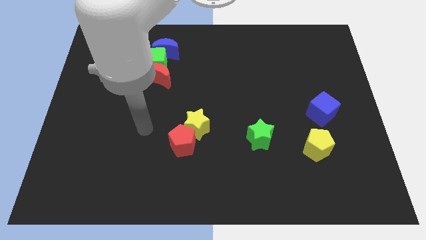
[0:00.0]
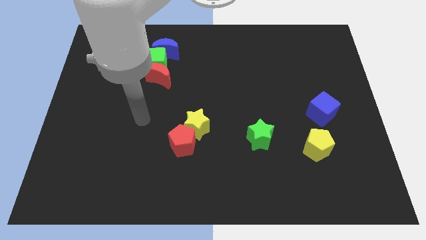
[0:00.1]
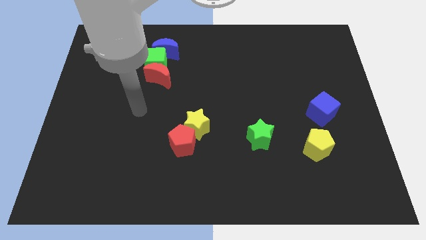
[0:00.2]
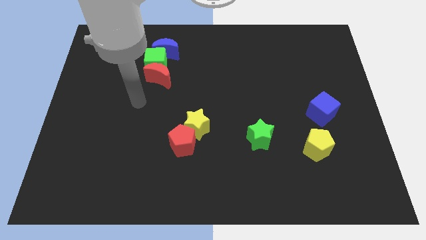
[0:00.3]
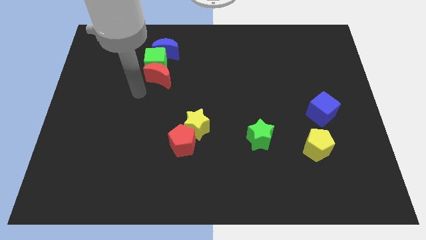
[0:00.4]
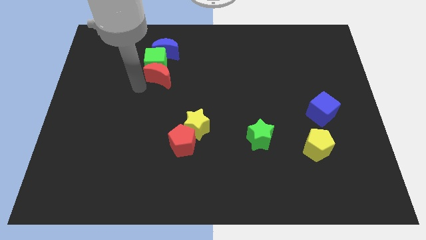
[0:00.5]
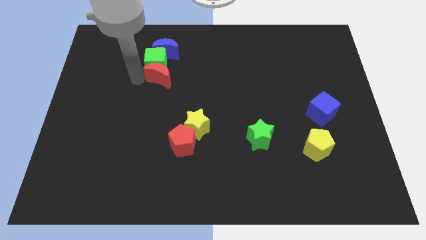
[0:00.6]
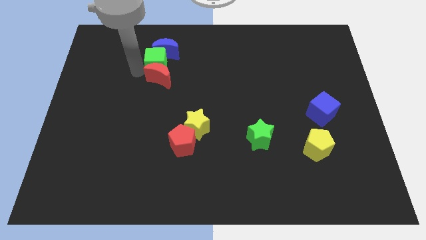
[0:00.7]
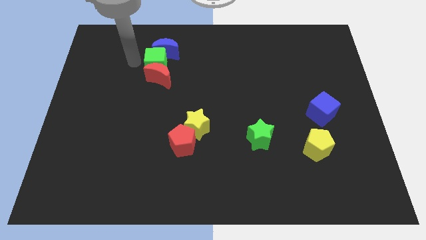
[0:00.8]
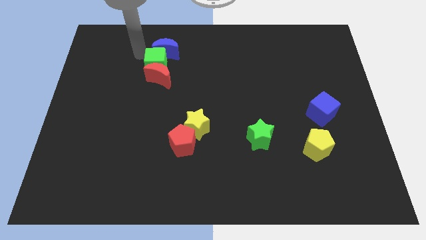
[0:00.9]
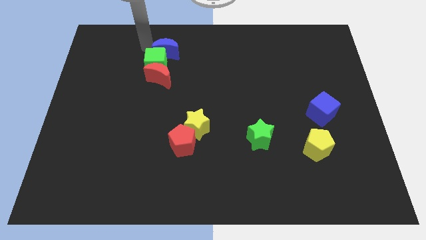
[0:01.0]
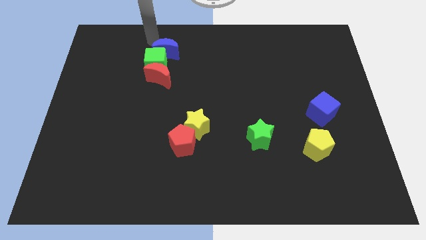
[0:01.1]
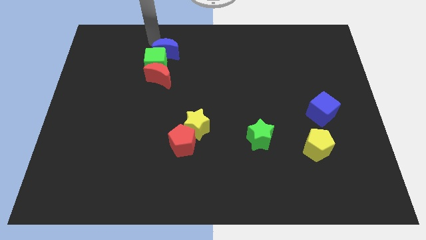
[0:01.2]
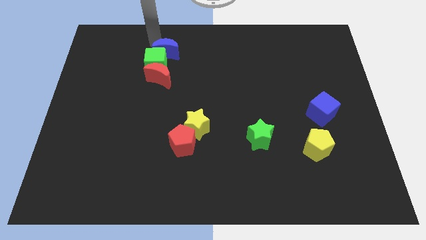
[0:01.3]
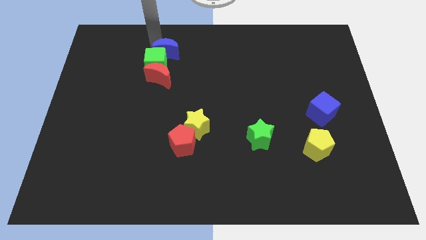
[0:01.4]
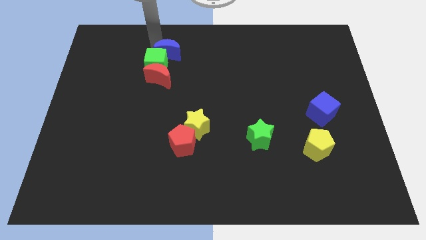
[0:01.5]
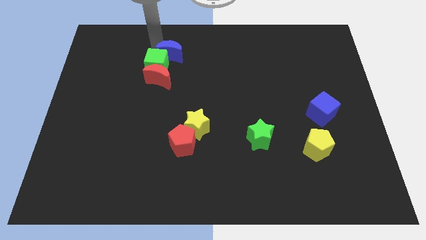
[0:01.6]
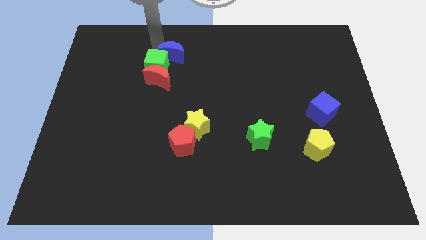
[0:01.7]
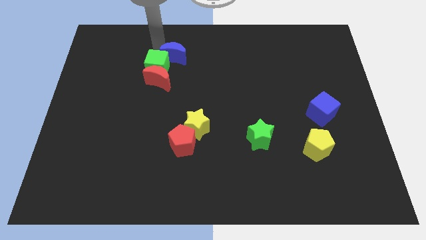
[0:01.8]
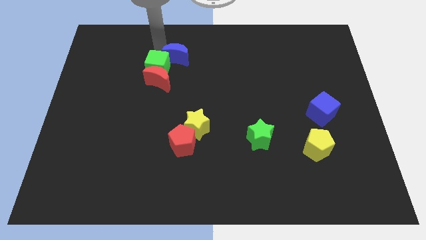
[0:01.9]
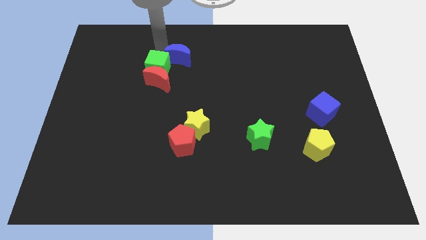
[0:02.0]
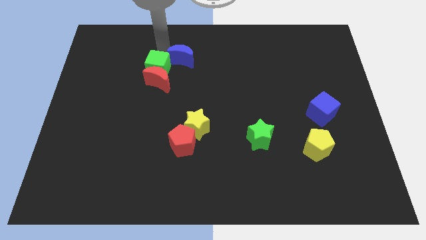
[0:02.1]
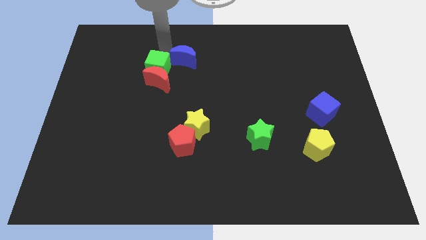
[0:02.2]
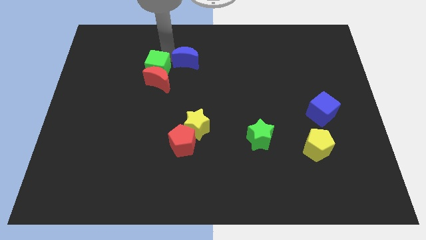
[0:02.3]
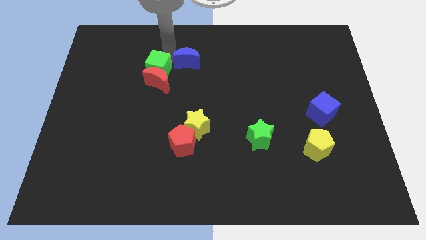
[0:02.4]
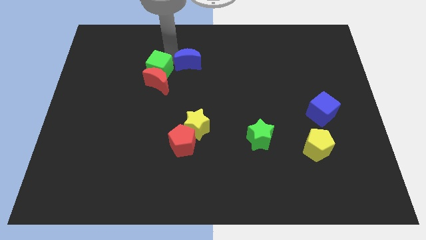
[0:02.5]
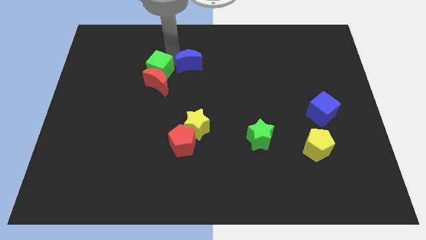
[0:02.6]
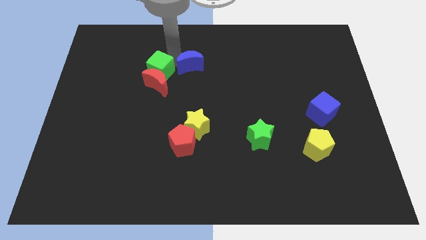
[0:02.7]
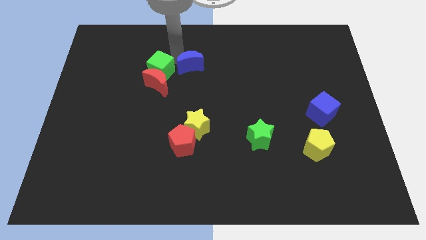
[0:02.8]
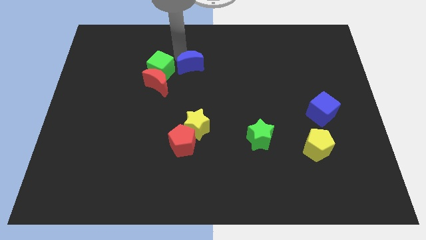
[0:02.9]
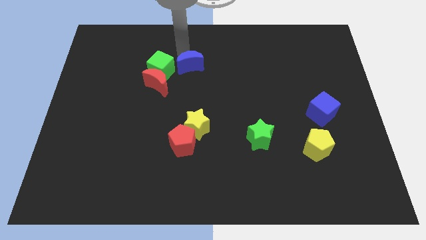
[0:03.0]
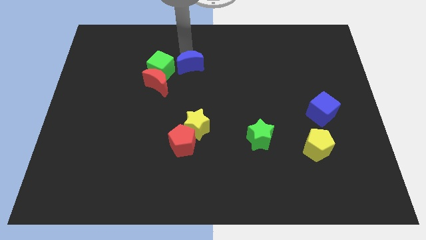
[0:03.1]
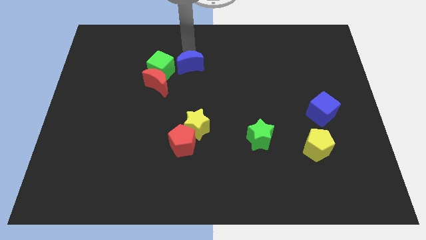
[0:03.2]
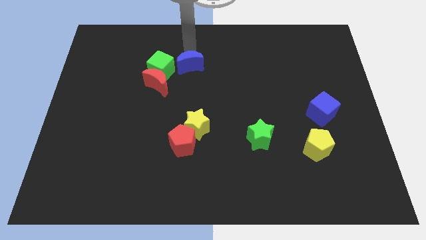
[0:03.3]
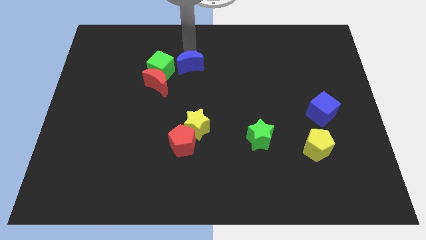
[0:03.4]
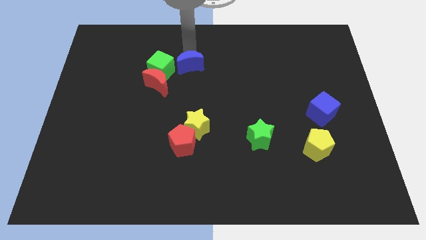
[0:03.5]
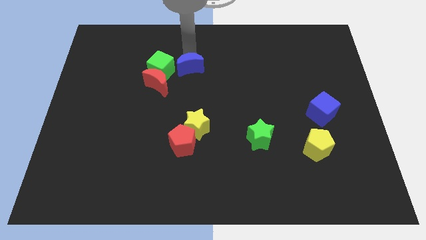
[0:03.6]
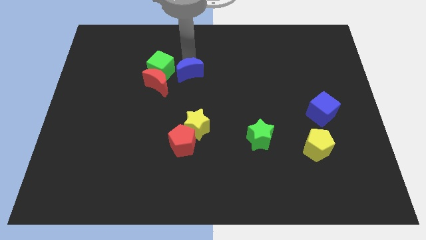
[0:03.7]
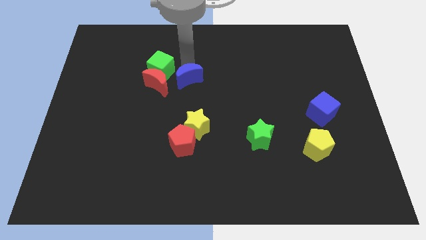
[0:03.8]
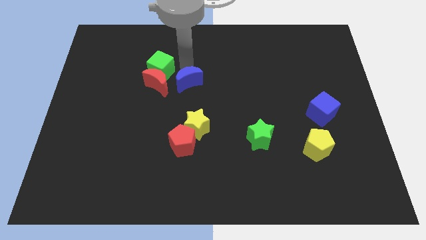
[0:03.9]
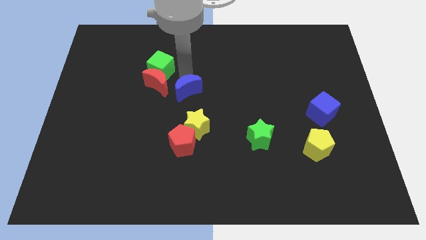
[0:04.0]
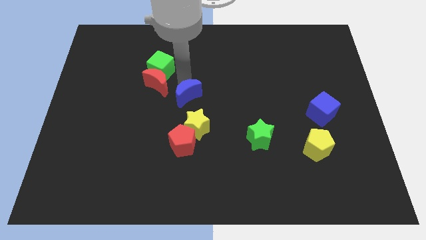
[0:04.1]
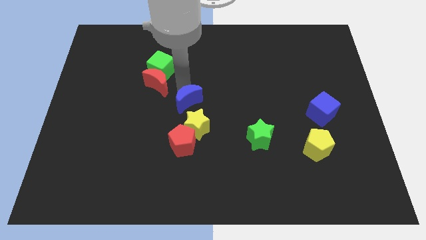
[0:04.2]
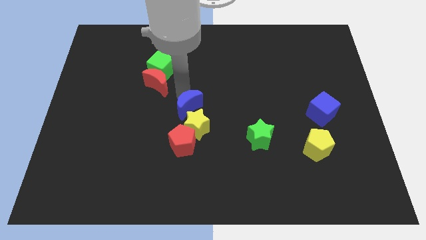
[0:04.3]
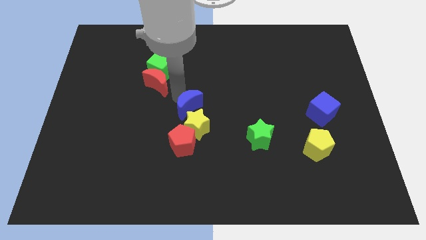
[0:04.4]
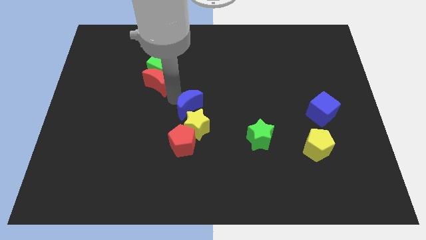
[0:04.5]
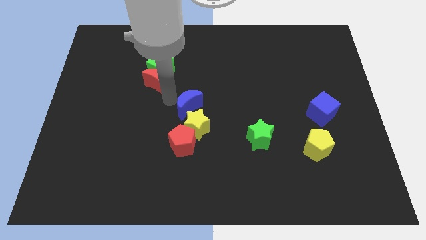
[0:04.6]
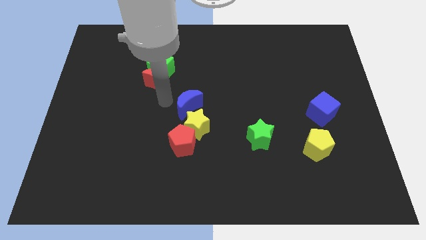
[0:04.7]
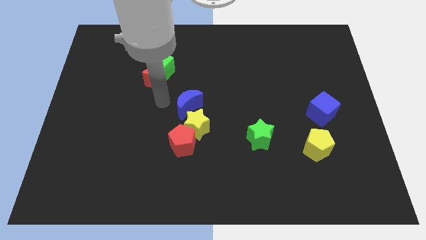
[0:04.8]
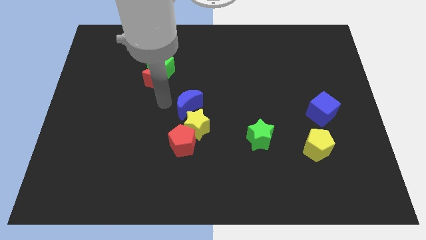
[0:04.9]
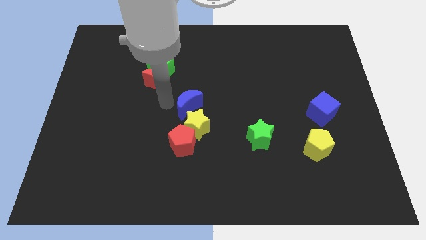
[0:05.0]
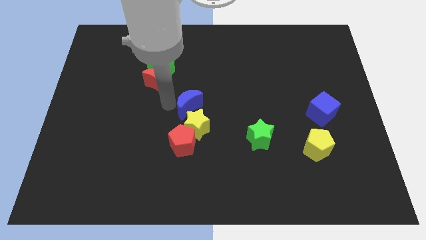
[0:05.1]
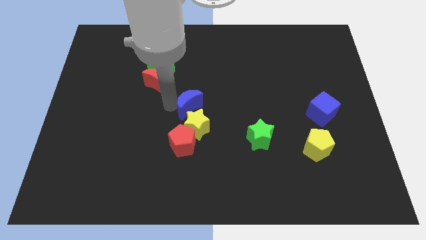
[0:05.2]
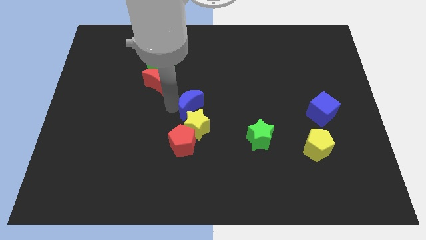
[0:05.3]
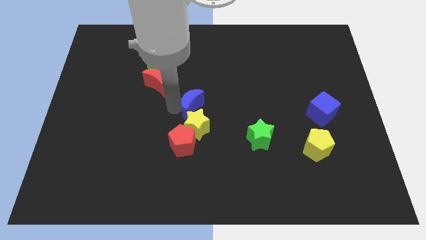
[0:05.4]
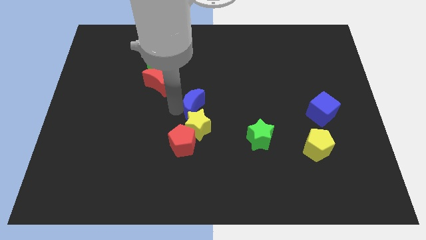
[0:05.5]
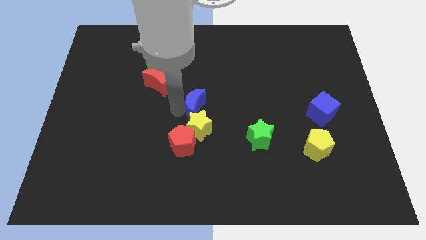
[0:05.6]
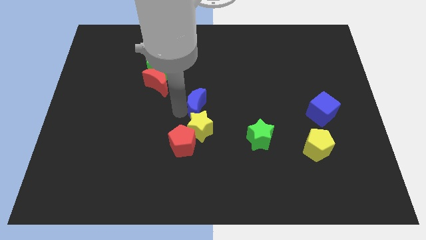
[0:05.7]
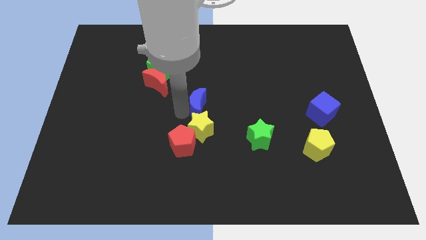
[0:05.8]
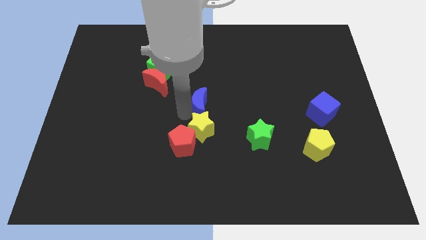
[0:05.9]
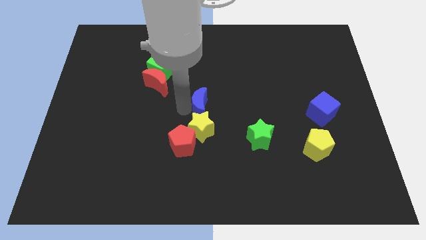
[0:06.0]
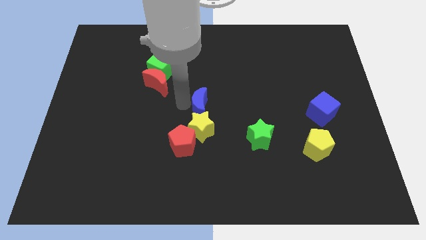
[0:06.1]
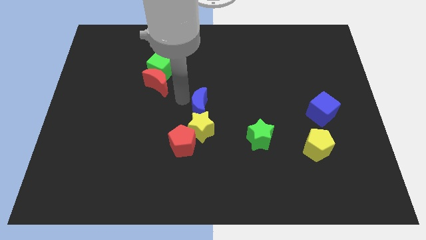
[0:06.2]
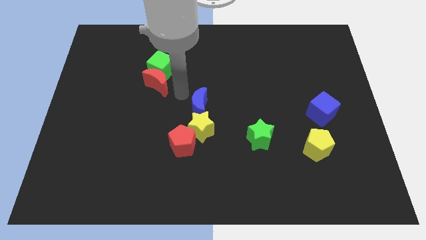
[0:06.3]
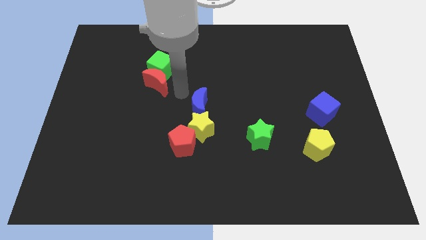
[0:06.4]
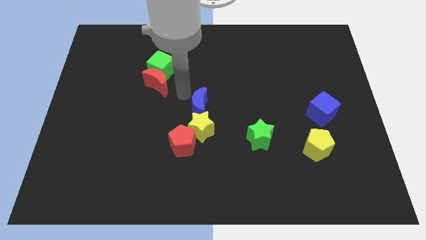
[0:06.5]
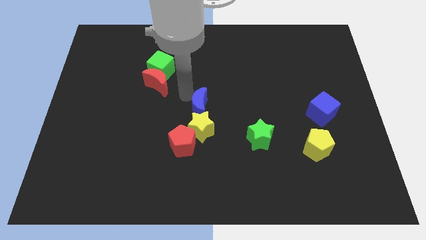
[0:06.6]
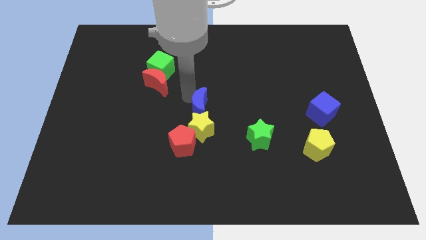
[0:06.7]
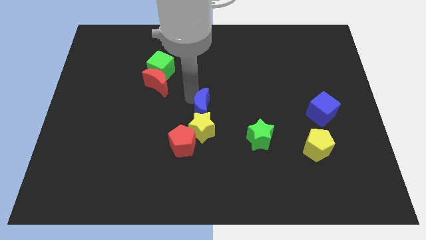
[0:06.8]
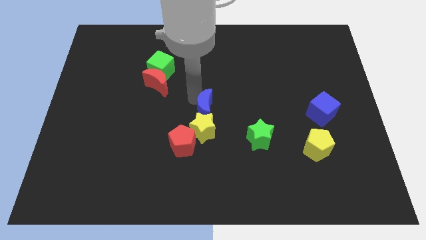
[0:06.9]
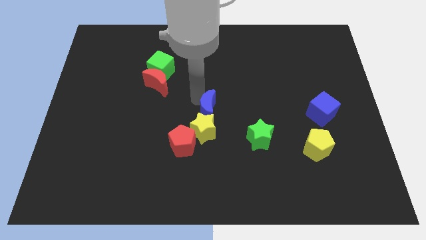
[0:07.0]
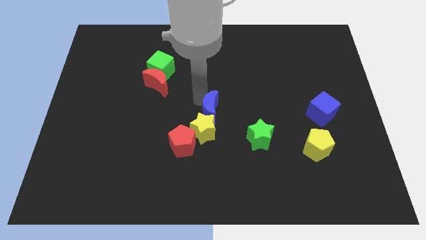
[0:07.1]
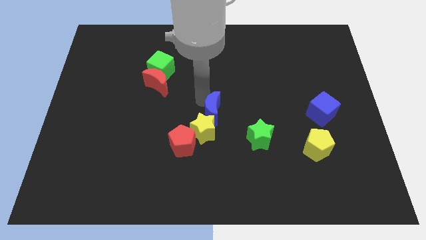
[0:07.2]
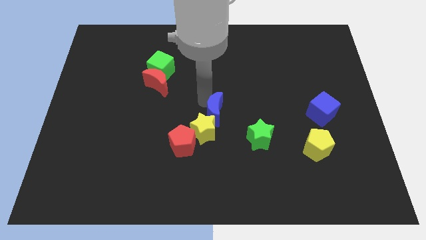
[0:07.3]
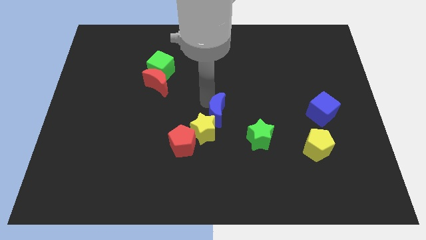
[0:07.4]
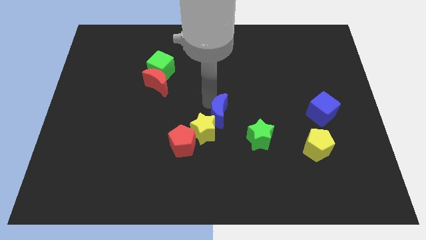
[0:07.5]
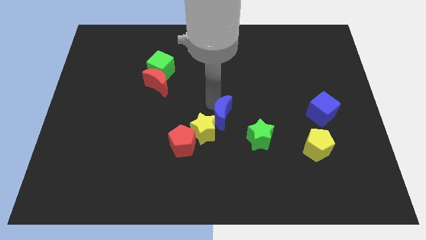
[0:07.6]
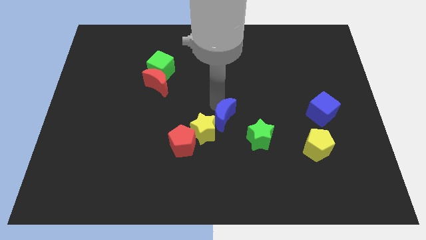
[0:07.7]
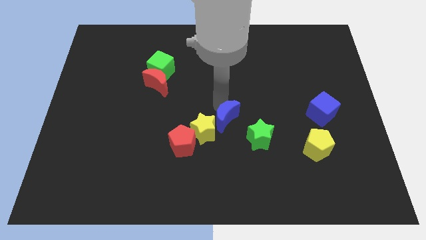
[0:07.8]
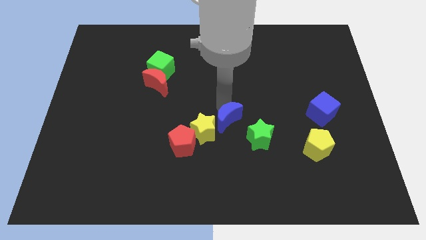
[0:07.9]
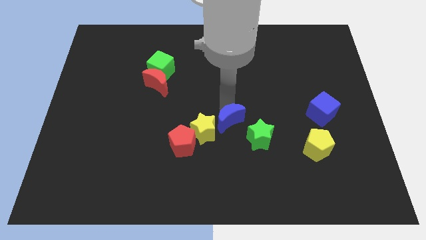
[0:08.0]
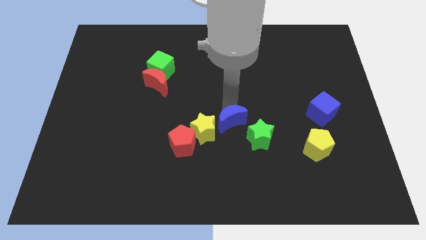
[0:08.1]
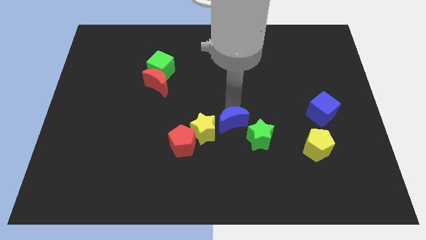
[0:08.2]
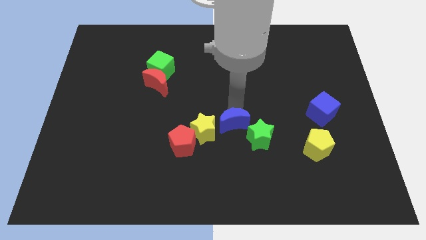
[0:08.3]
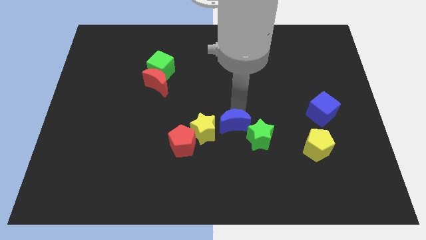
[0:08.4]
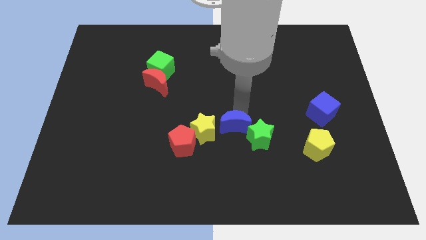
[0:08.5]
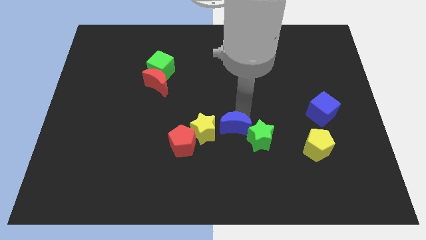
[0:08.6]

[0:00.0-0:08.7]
slide the blue moon just right of the red pentagon
